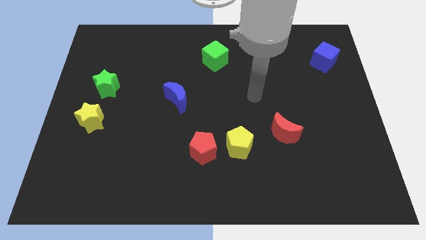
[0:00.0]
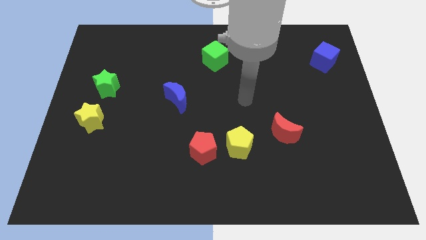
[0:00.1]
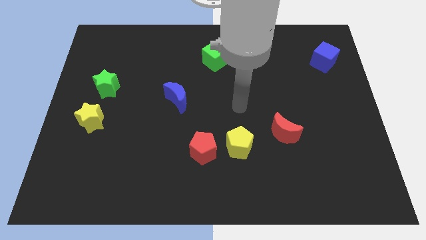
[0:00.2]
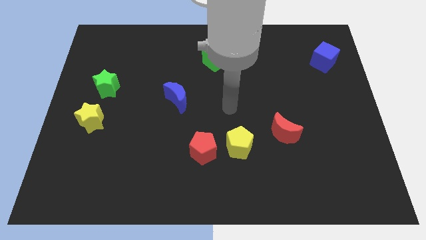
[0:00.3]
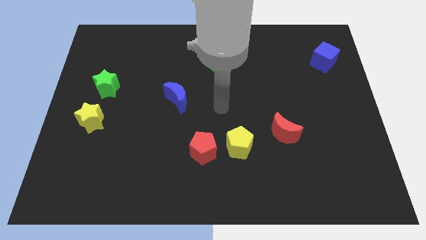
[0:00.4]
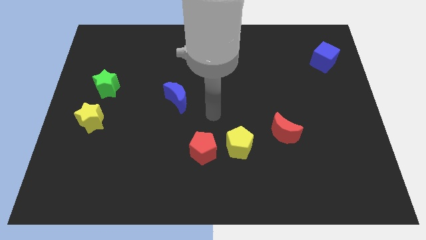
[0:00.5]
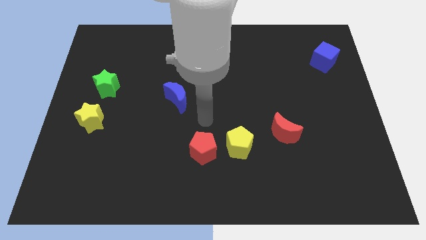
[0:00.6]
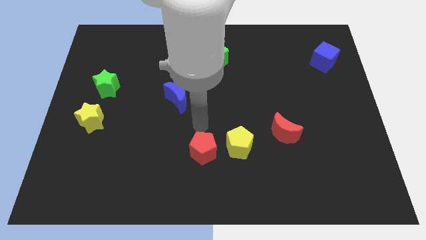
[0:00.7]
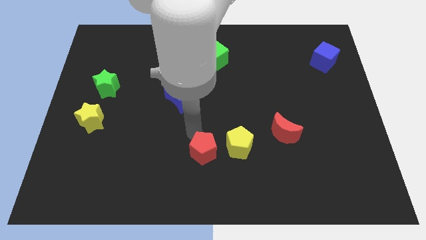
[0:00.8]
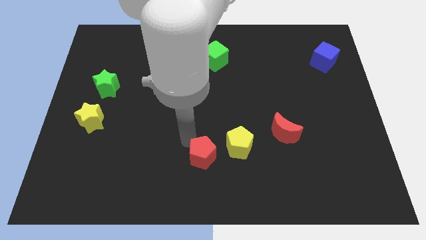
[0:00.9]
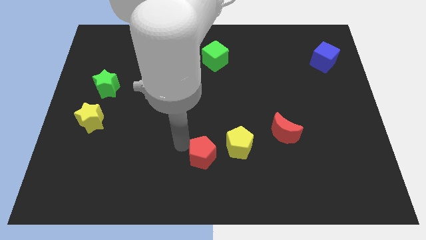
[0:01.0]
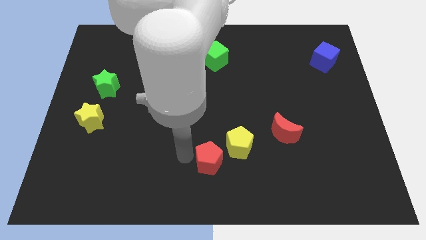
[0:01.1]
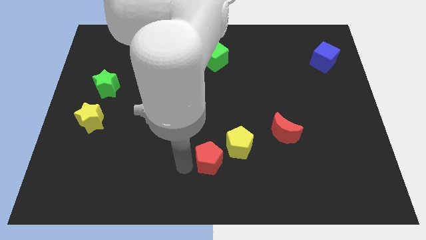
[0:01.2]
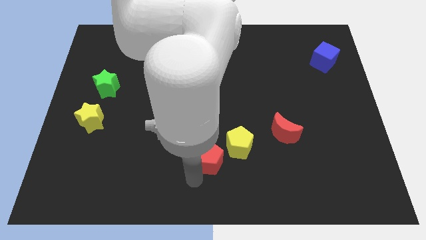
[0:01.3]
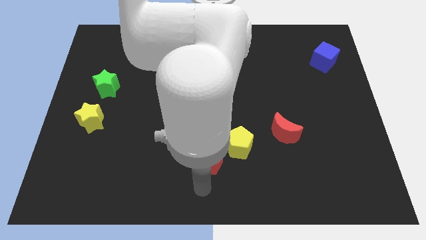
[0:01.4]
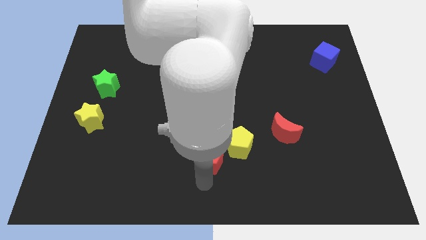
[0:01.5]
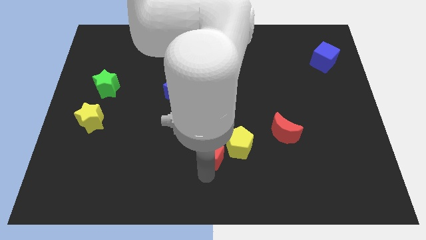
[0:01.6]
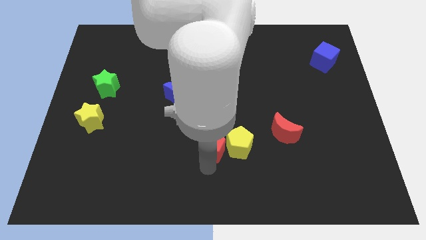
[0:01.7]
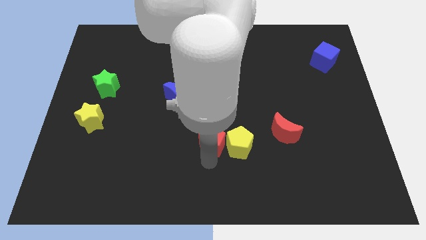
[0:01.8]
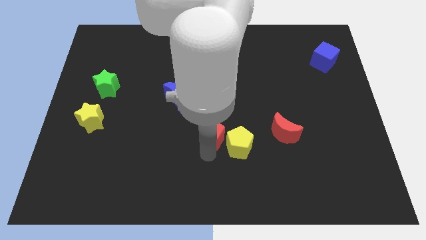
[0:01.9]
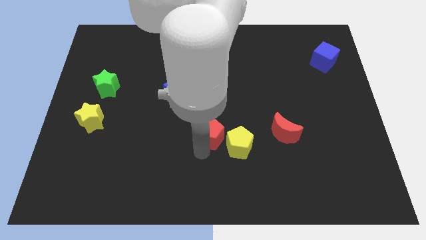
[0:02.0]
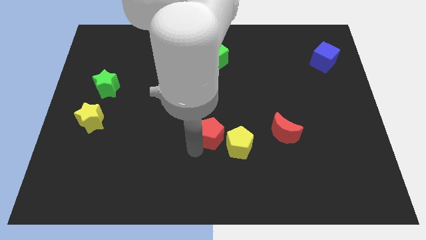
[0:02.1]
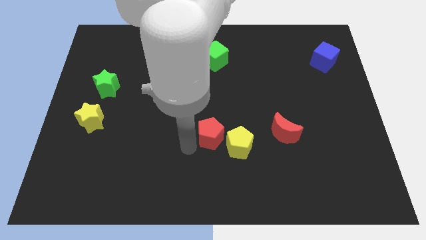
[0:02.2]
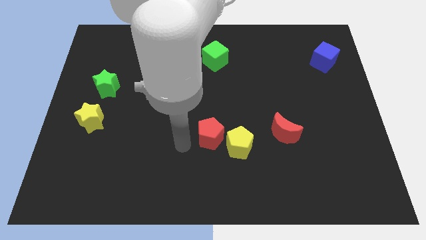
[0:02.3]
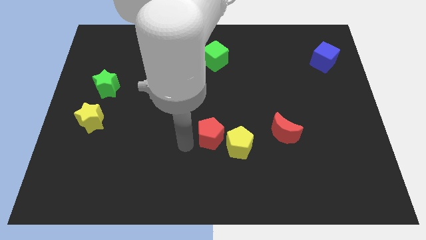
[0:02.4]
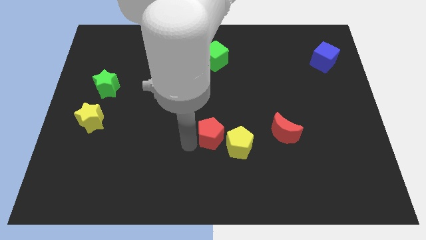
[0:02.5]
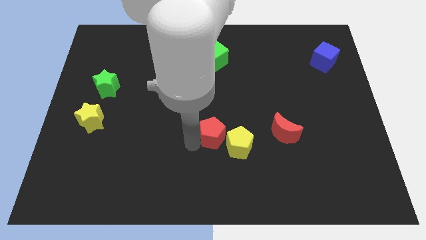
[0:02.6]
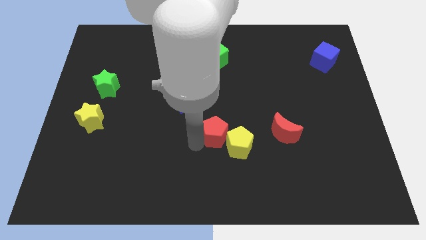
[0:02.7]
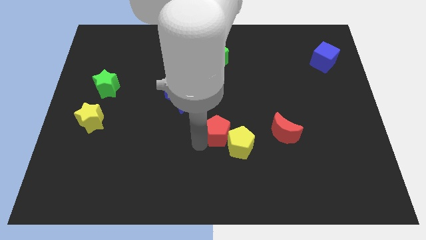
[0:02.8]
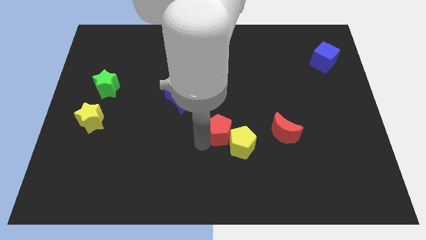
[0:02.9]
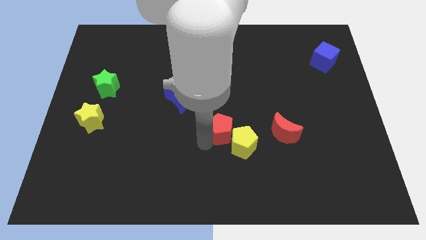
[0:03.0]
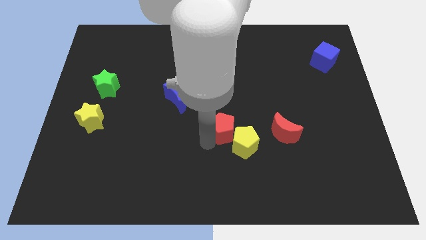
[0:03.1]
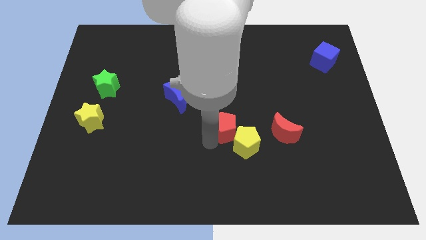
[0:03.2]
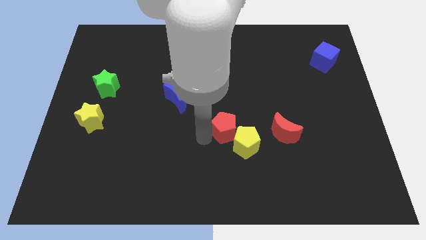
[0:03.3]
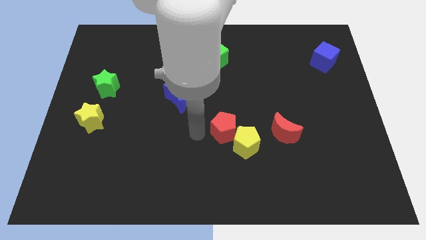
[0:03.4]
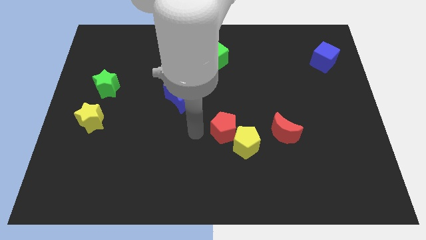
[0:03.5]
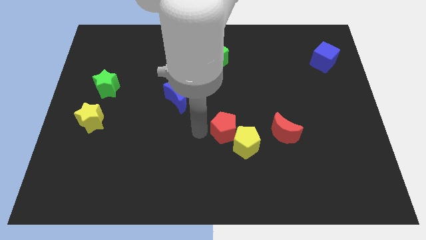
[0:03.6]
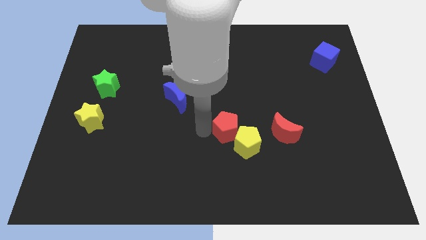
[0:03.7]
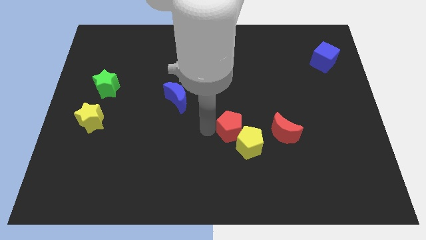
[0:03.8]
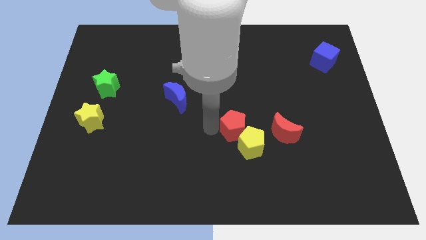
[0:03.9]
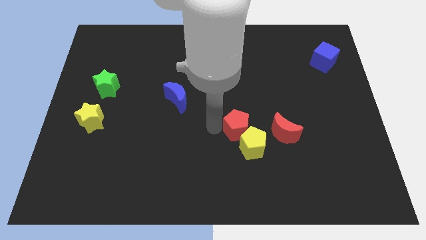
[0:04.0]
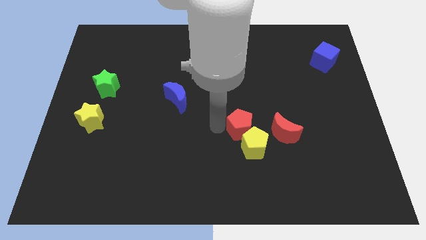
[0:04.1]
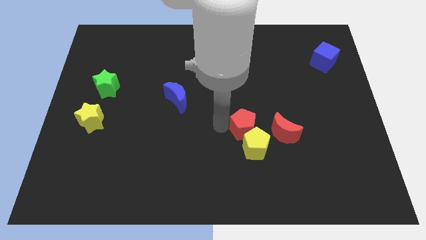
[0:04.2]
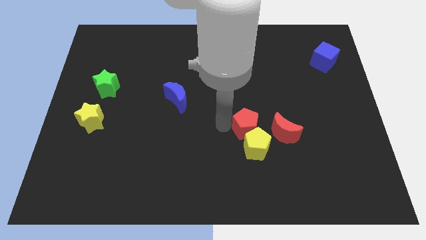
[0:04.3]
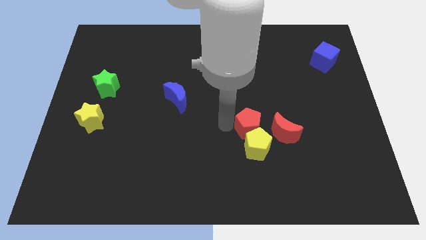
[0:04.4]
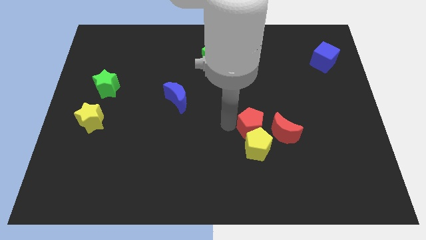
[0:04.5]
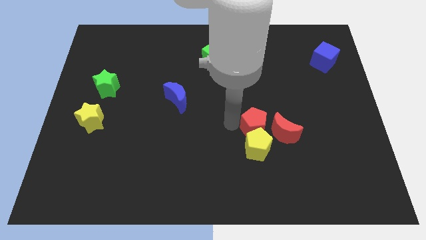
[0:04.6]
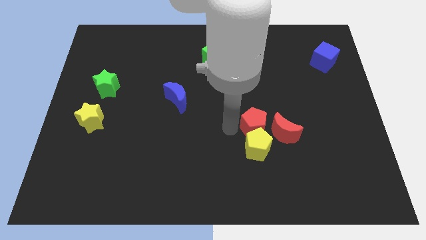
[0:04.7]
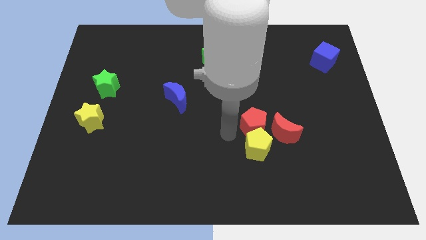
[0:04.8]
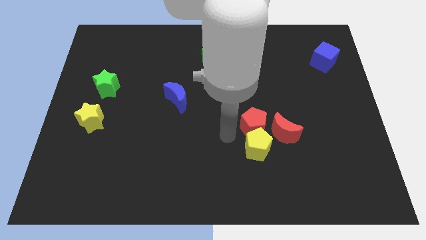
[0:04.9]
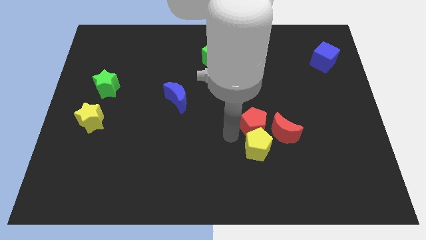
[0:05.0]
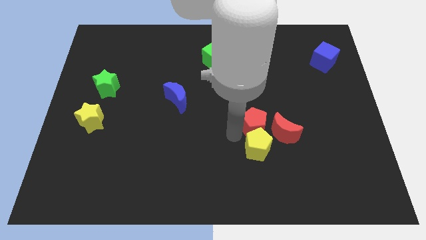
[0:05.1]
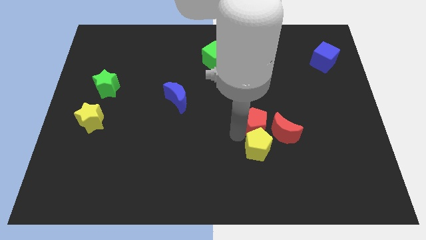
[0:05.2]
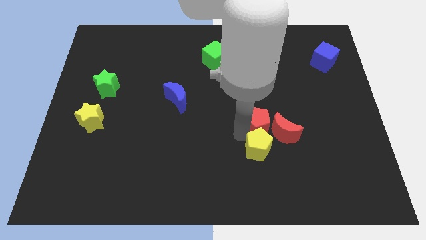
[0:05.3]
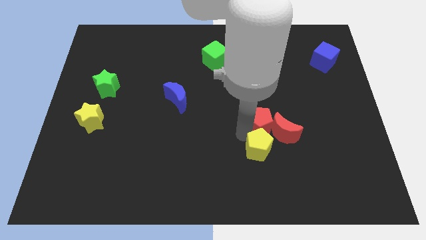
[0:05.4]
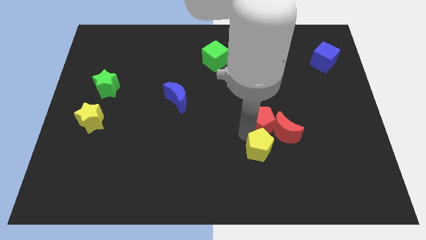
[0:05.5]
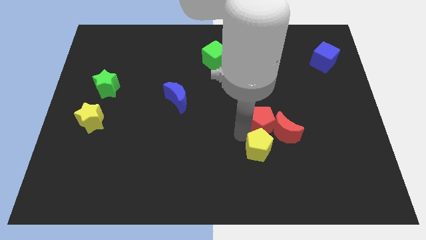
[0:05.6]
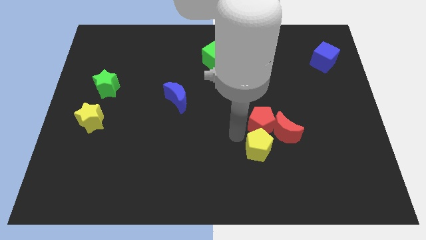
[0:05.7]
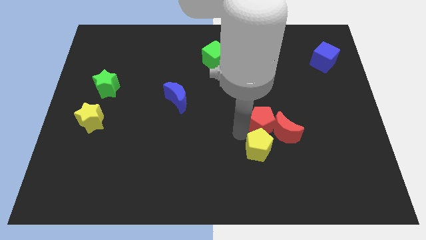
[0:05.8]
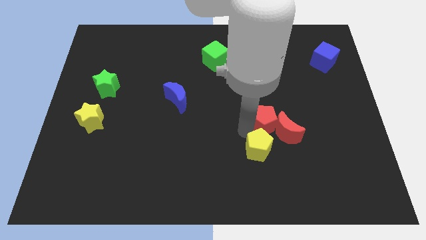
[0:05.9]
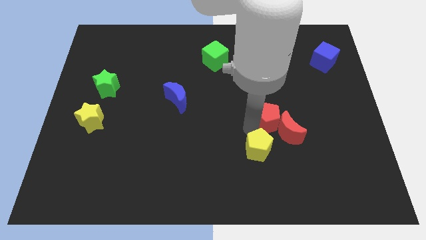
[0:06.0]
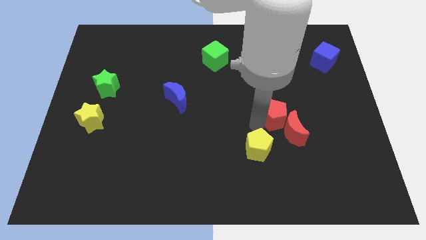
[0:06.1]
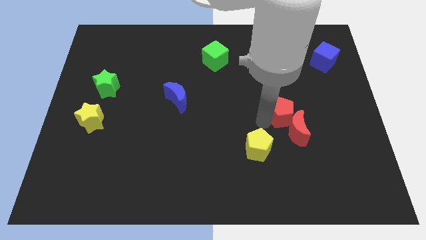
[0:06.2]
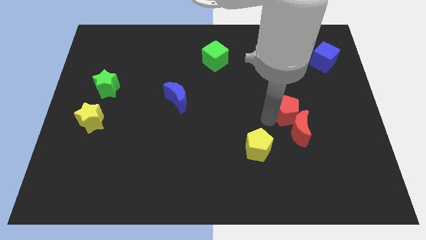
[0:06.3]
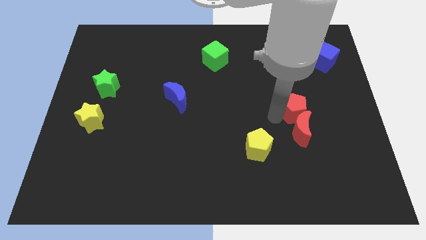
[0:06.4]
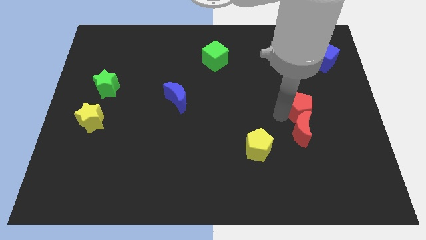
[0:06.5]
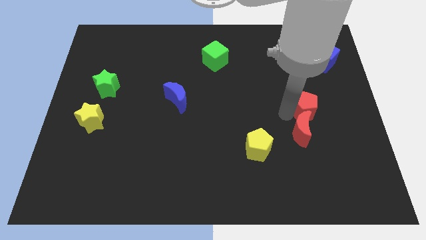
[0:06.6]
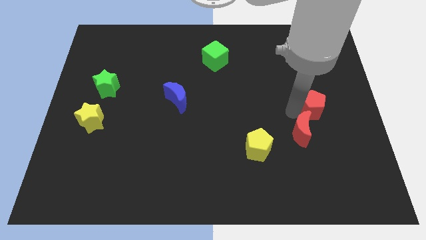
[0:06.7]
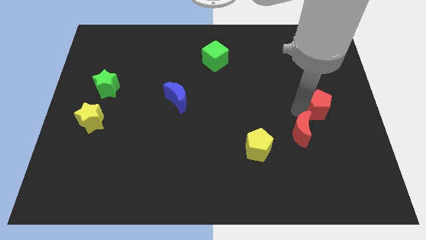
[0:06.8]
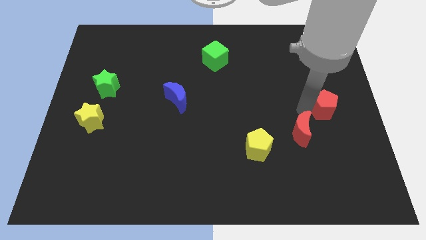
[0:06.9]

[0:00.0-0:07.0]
move the red pentagon to the right side of the board
